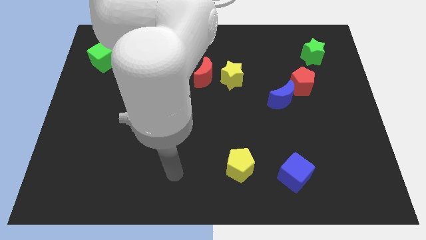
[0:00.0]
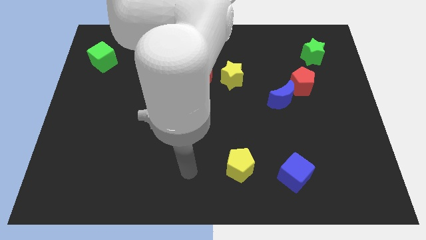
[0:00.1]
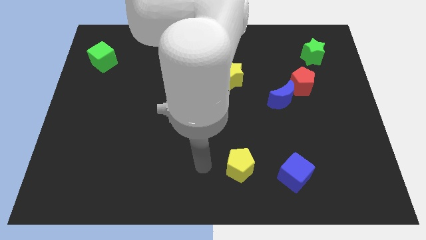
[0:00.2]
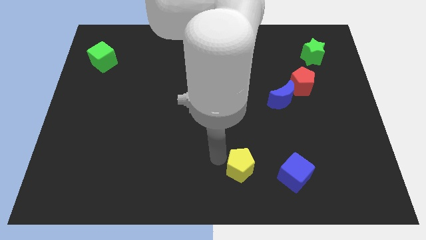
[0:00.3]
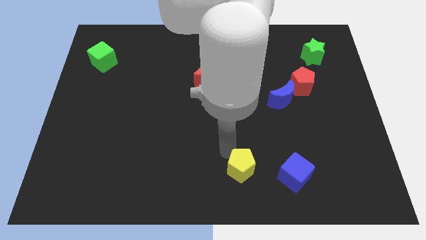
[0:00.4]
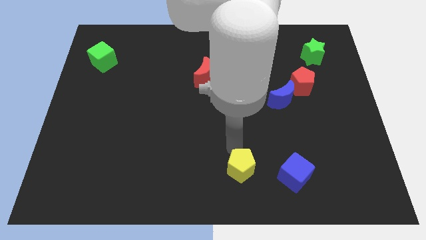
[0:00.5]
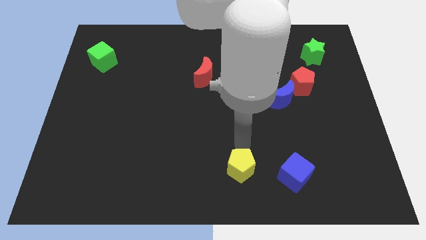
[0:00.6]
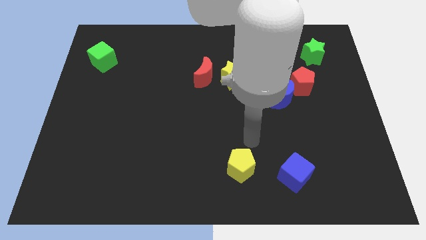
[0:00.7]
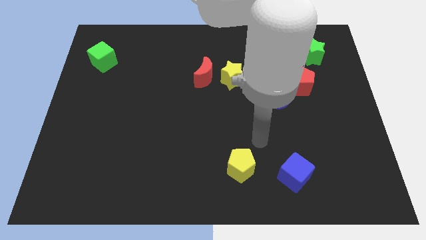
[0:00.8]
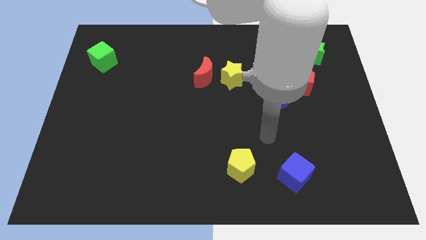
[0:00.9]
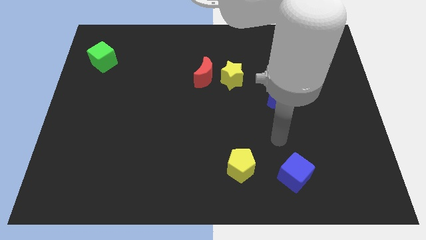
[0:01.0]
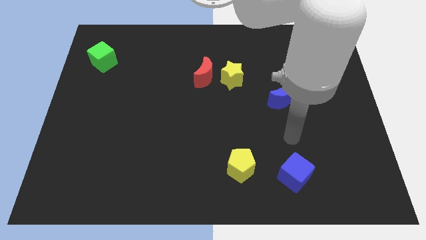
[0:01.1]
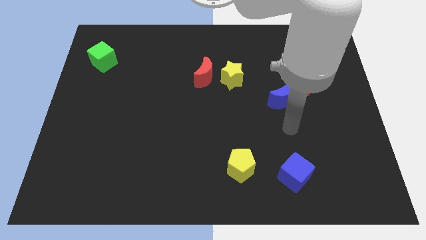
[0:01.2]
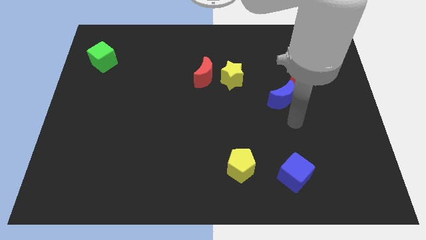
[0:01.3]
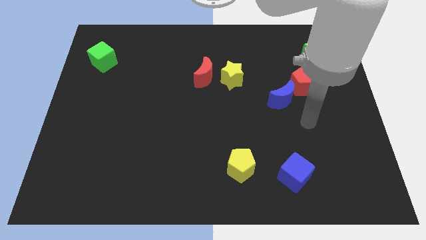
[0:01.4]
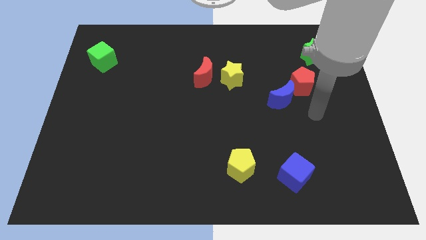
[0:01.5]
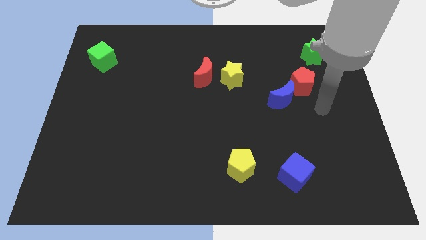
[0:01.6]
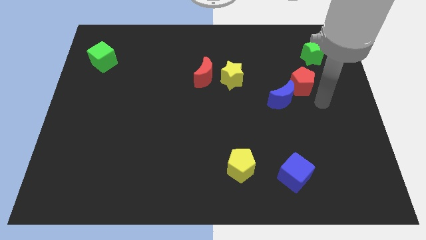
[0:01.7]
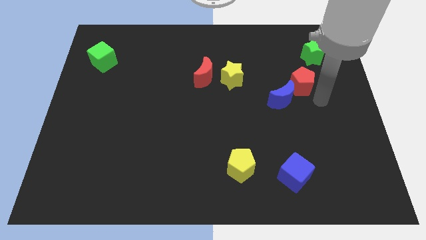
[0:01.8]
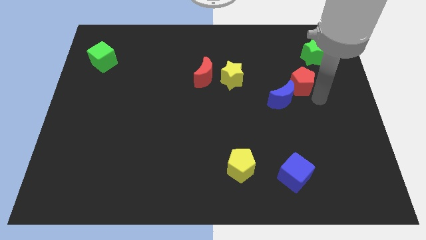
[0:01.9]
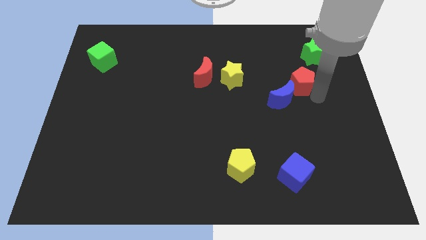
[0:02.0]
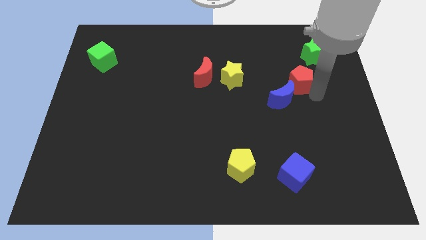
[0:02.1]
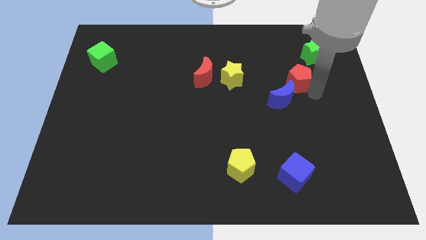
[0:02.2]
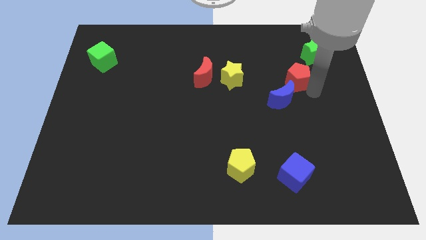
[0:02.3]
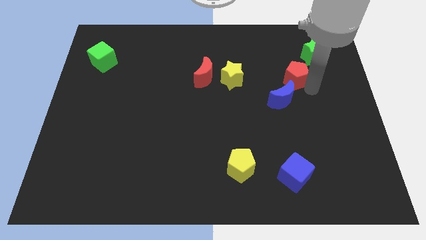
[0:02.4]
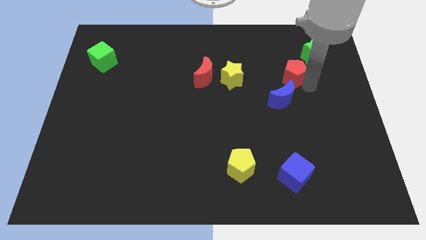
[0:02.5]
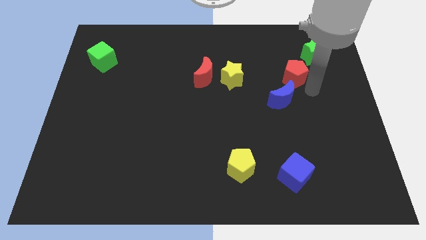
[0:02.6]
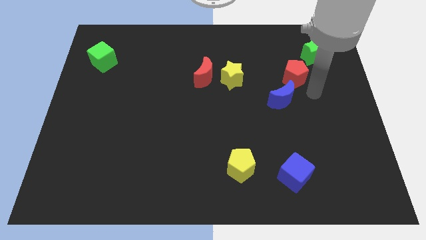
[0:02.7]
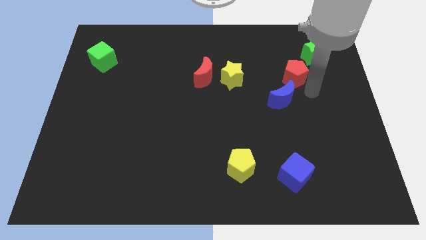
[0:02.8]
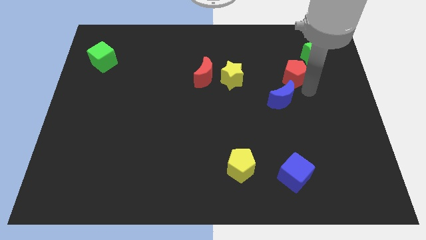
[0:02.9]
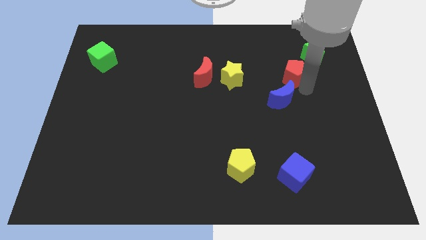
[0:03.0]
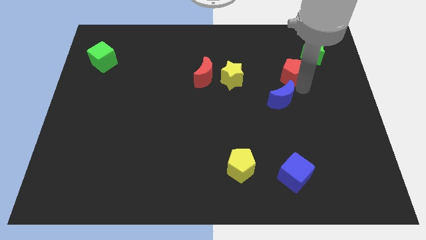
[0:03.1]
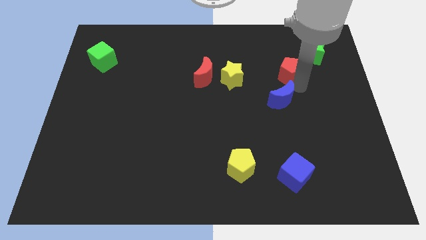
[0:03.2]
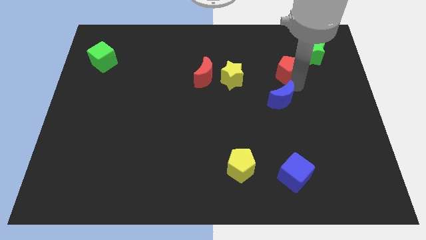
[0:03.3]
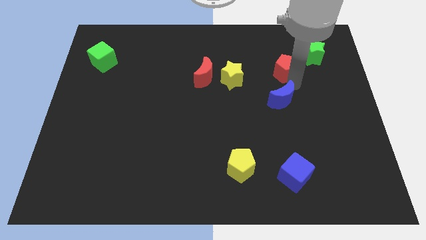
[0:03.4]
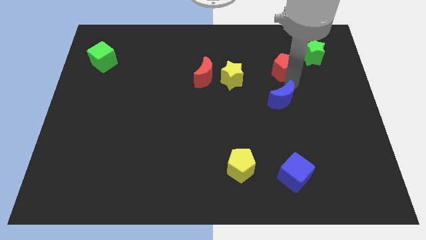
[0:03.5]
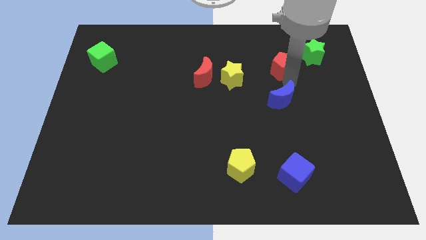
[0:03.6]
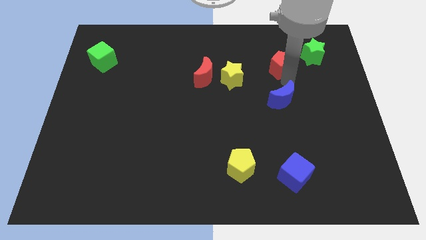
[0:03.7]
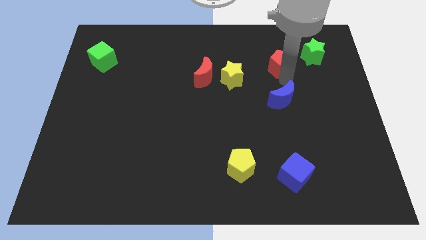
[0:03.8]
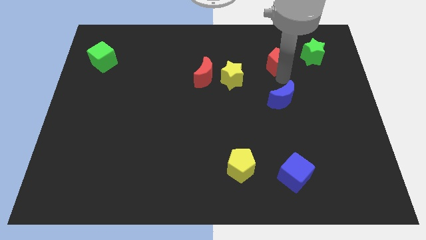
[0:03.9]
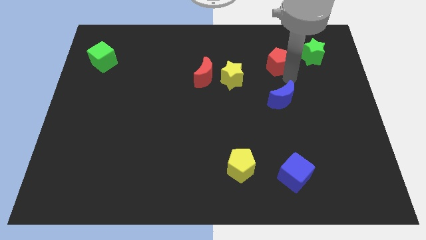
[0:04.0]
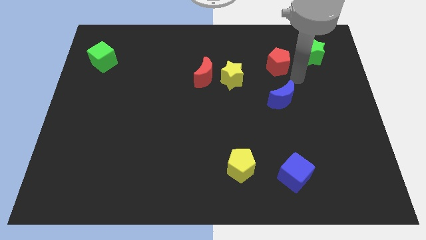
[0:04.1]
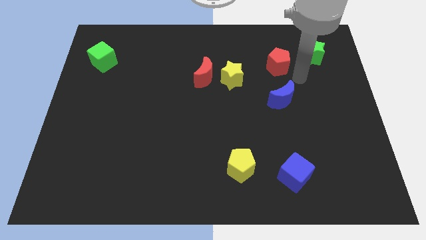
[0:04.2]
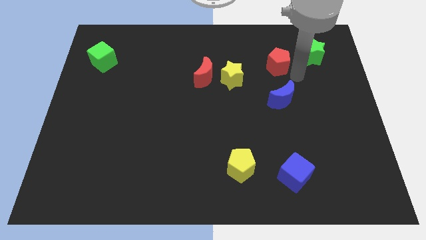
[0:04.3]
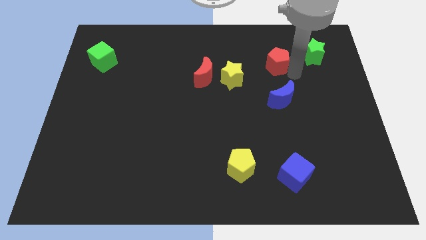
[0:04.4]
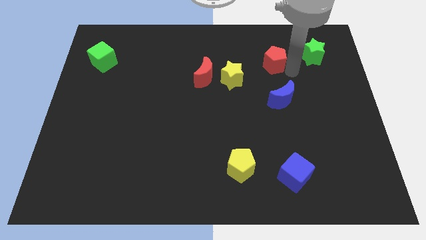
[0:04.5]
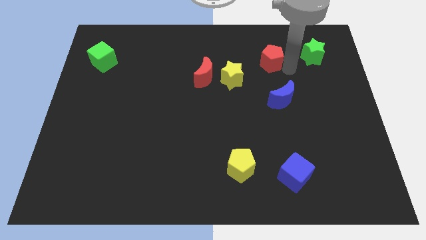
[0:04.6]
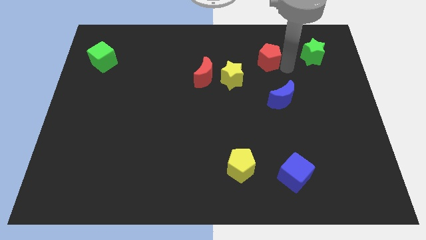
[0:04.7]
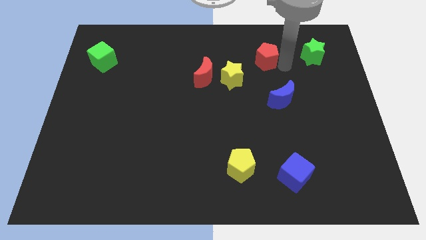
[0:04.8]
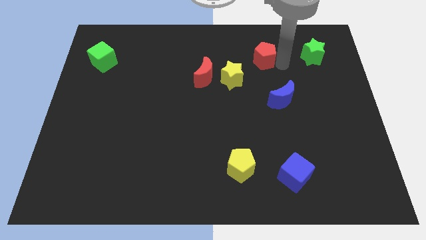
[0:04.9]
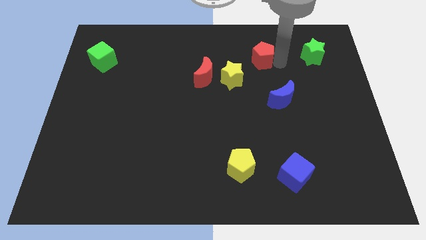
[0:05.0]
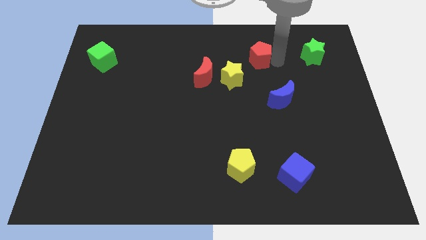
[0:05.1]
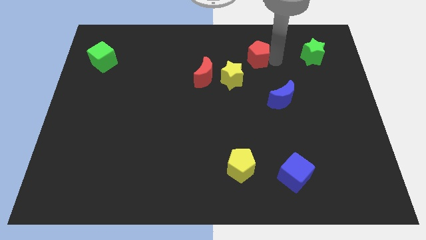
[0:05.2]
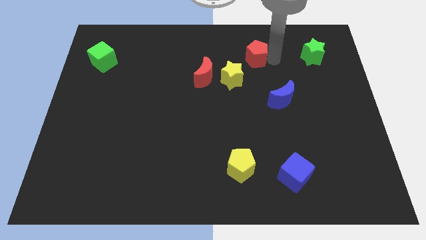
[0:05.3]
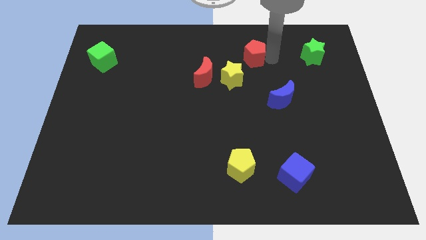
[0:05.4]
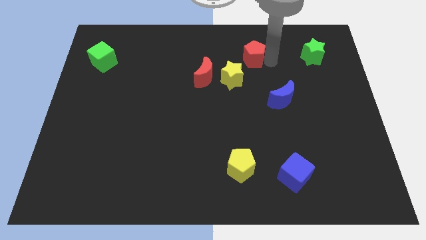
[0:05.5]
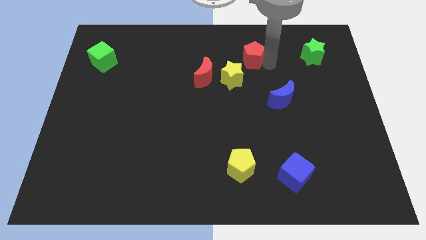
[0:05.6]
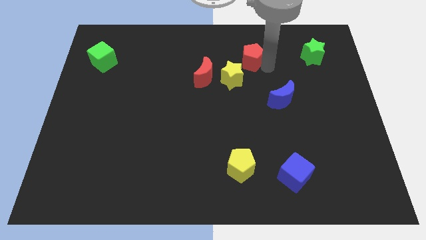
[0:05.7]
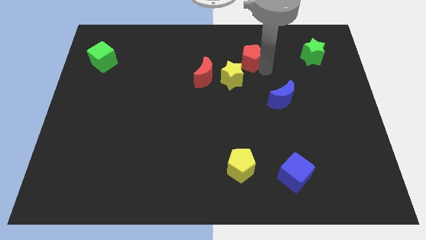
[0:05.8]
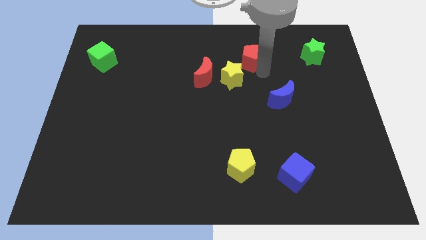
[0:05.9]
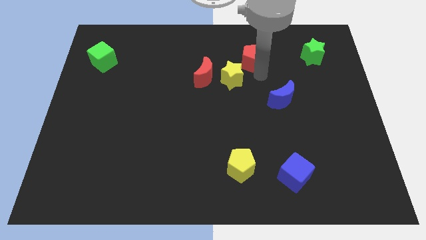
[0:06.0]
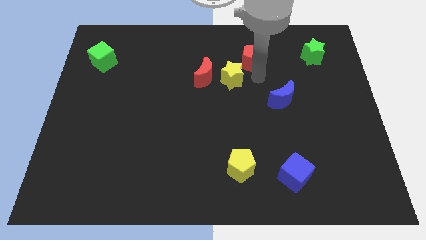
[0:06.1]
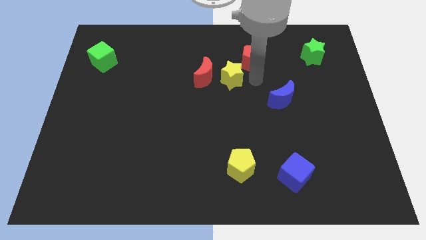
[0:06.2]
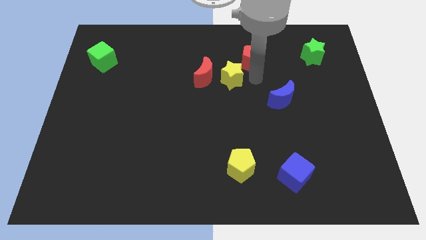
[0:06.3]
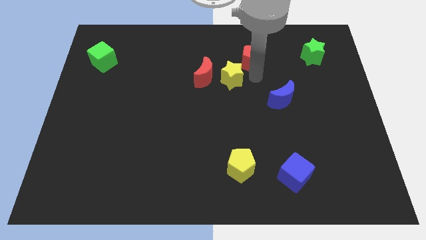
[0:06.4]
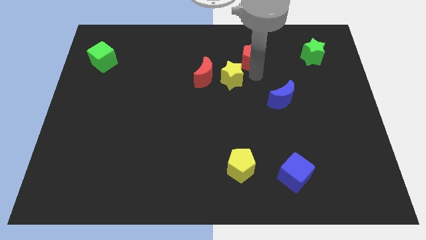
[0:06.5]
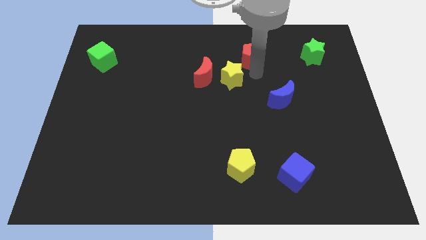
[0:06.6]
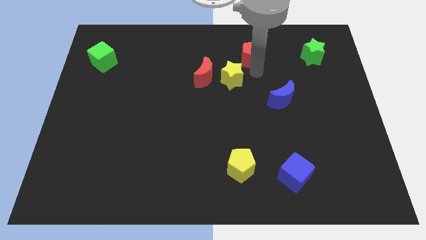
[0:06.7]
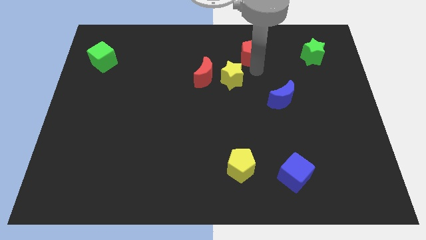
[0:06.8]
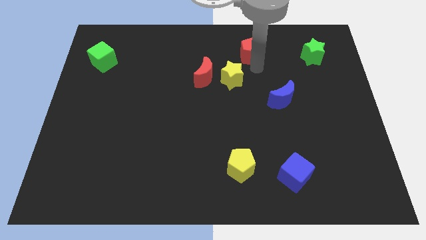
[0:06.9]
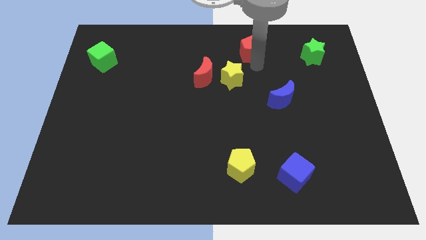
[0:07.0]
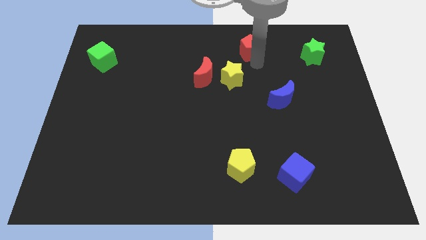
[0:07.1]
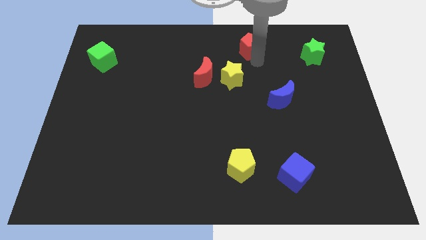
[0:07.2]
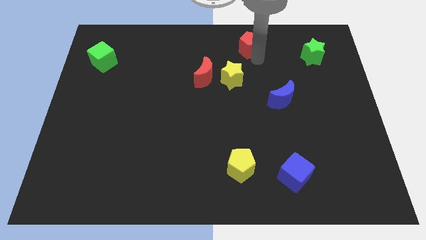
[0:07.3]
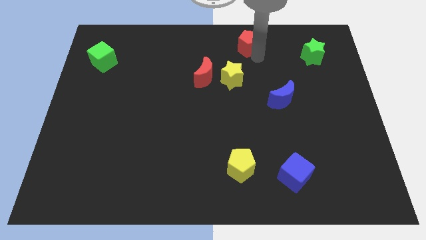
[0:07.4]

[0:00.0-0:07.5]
push the red pentagon to the top side
